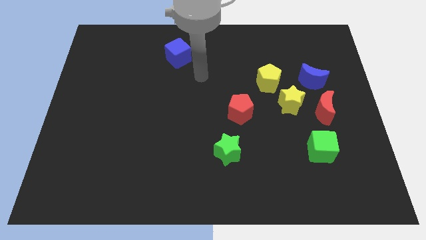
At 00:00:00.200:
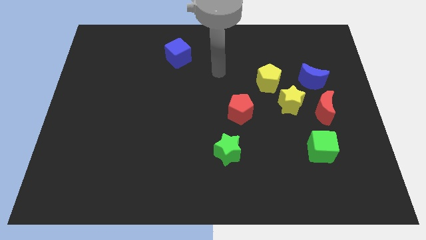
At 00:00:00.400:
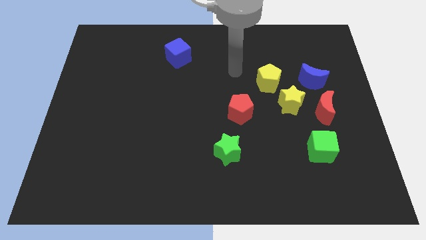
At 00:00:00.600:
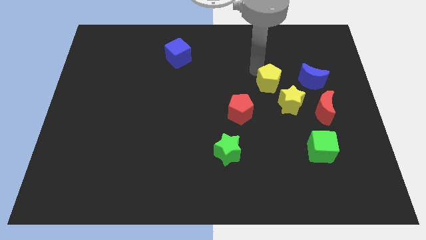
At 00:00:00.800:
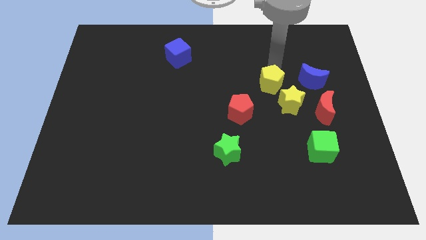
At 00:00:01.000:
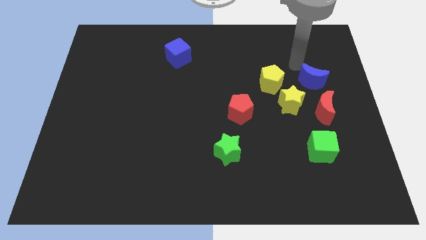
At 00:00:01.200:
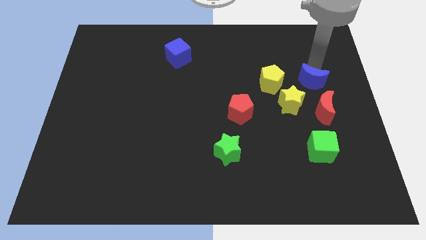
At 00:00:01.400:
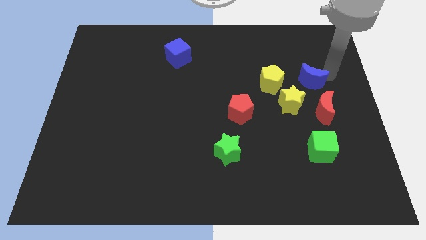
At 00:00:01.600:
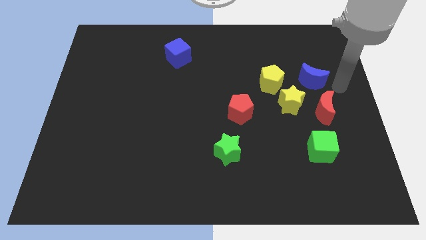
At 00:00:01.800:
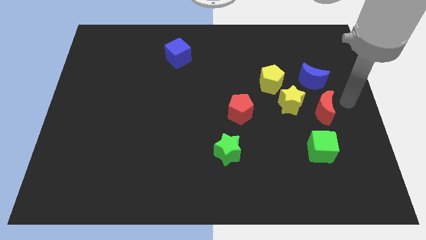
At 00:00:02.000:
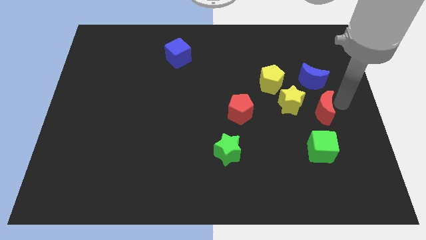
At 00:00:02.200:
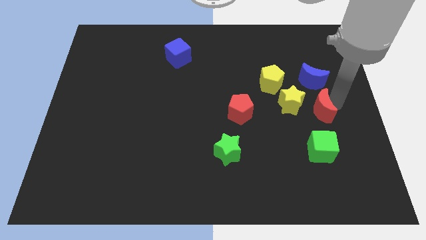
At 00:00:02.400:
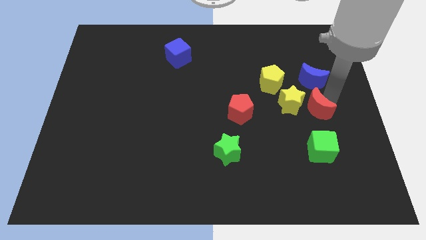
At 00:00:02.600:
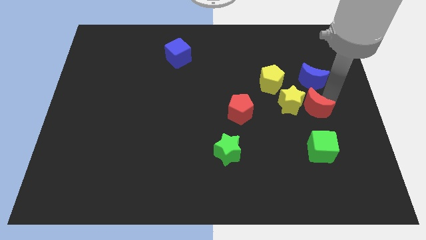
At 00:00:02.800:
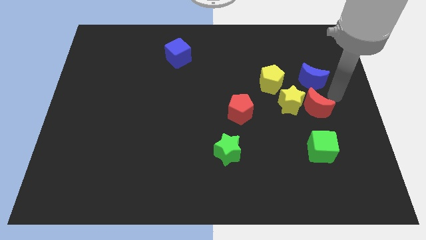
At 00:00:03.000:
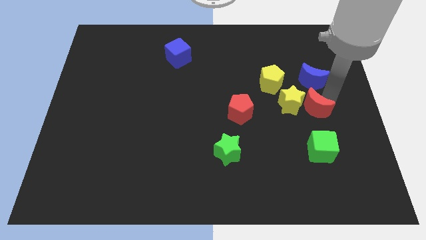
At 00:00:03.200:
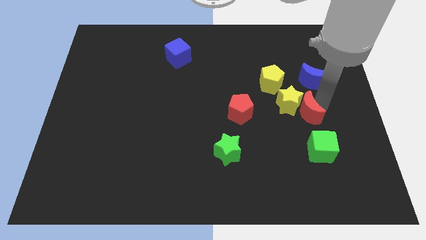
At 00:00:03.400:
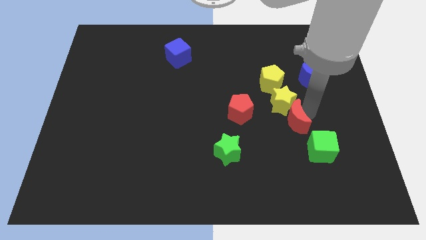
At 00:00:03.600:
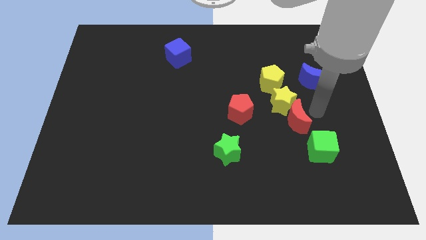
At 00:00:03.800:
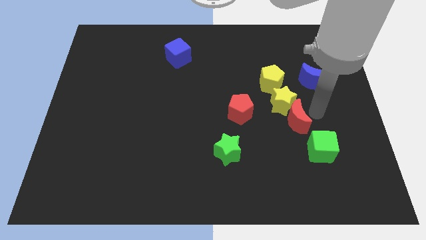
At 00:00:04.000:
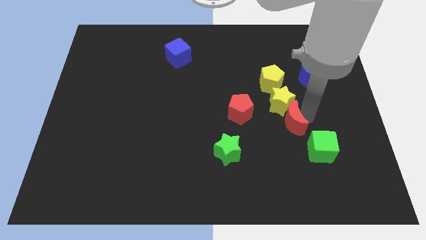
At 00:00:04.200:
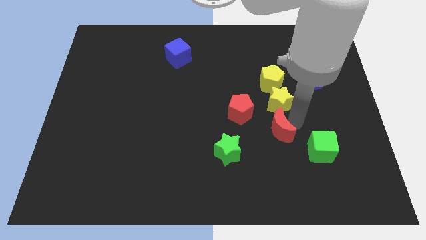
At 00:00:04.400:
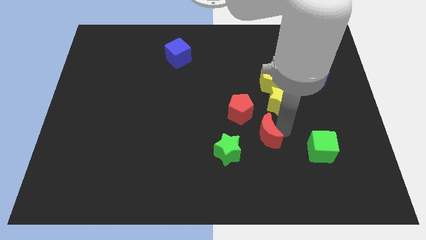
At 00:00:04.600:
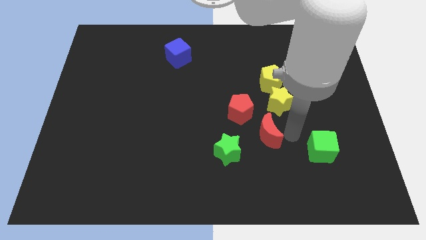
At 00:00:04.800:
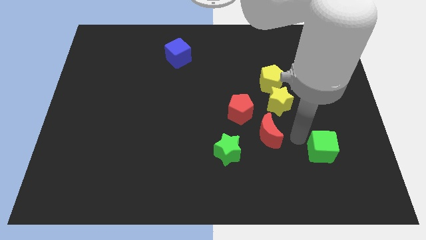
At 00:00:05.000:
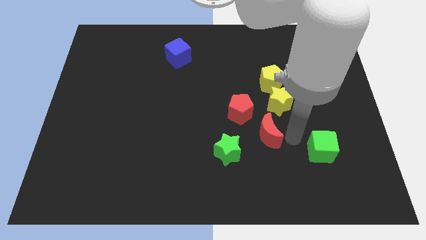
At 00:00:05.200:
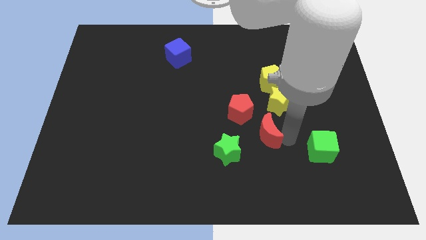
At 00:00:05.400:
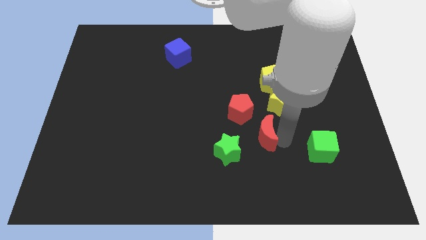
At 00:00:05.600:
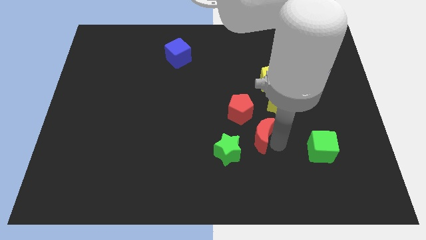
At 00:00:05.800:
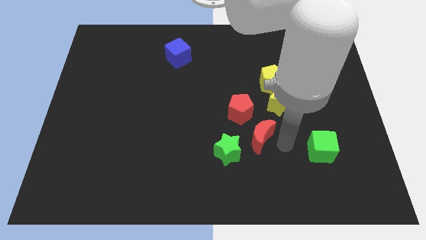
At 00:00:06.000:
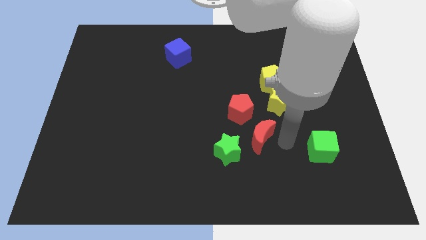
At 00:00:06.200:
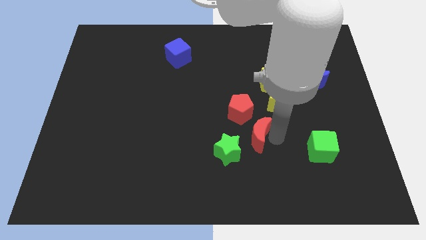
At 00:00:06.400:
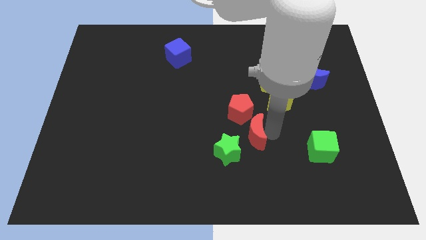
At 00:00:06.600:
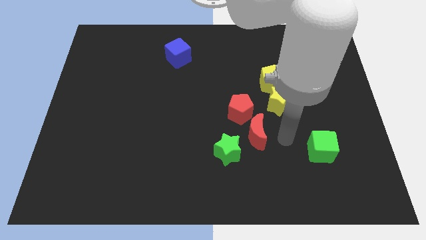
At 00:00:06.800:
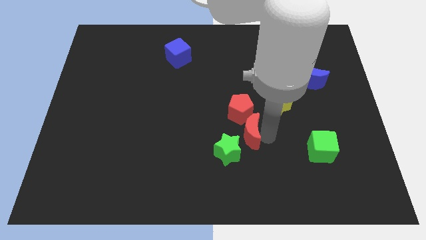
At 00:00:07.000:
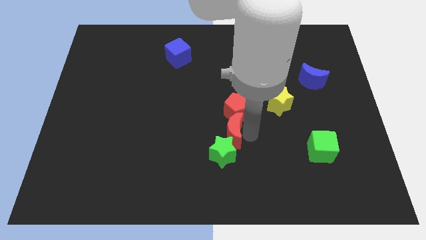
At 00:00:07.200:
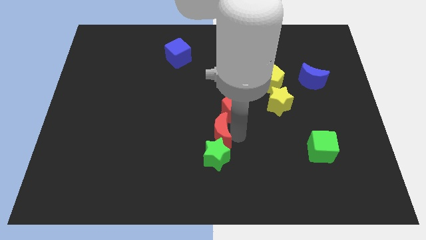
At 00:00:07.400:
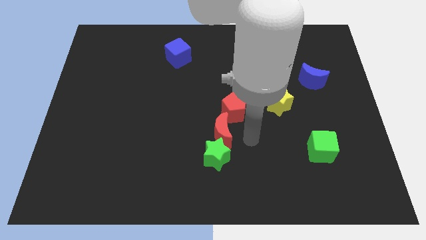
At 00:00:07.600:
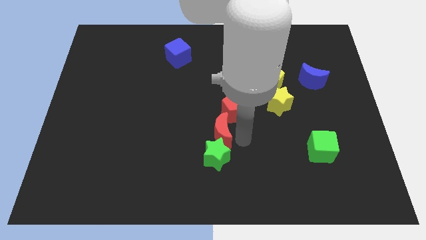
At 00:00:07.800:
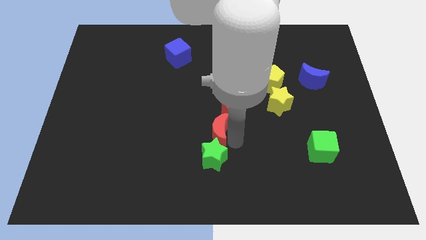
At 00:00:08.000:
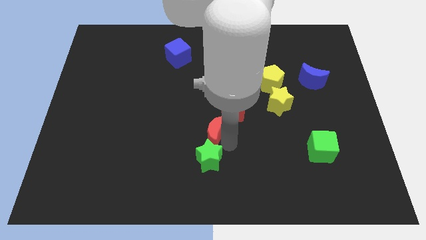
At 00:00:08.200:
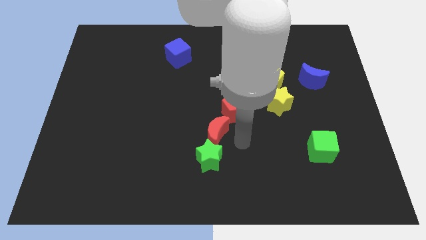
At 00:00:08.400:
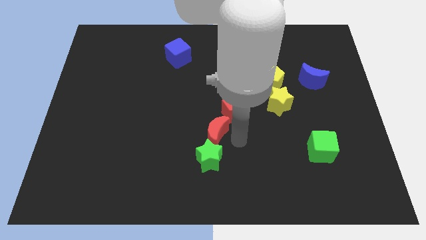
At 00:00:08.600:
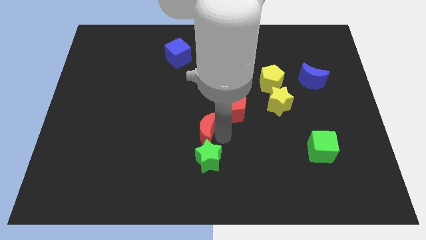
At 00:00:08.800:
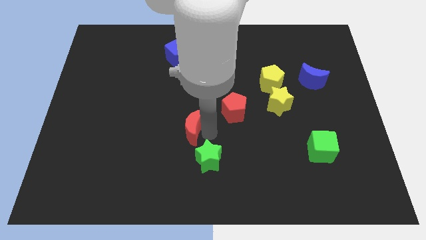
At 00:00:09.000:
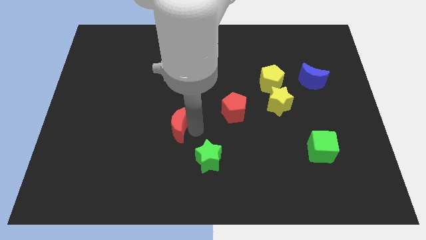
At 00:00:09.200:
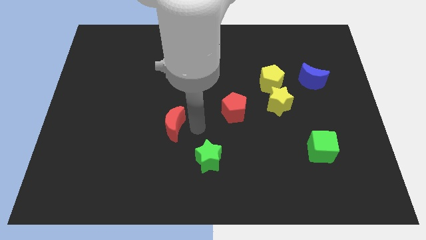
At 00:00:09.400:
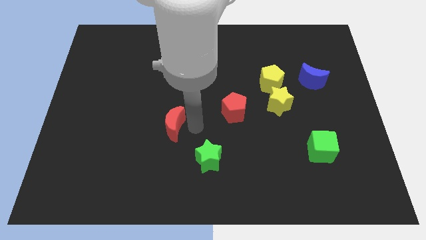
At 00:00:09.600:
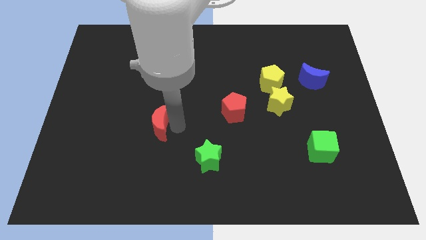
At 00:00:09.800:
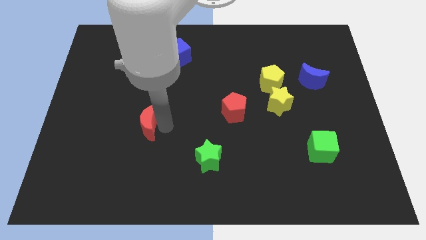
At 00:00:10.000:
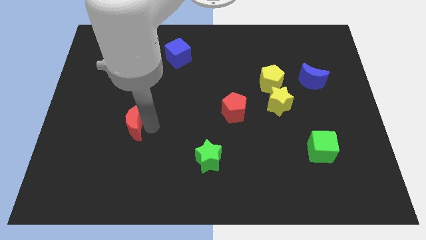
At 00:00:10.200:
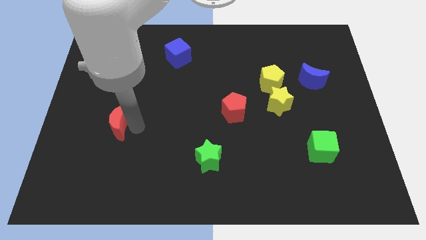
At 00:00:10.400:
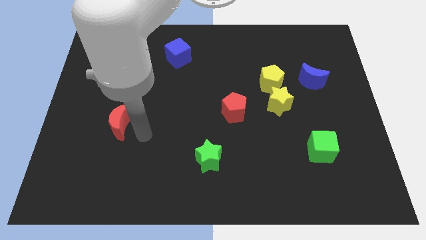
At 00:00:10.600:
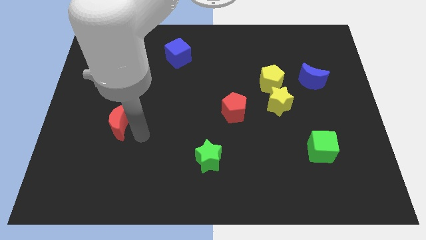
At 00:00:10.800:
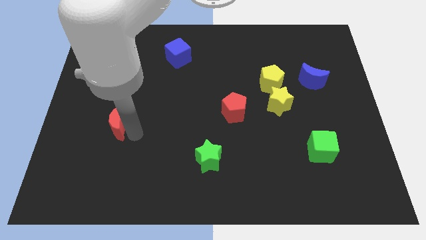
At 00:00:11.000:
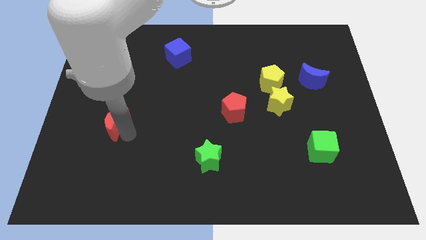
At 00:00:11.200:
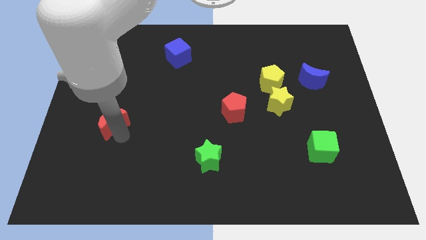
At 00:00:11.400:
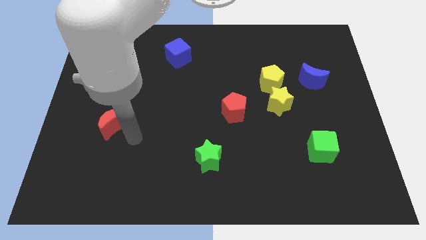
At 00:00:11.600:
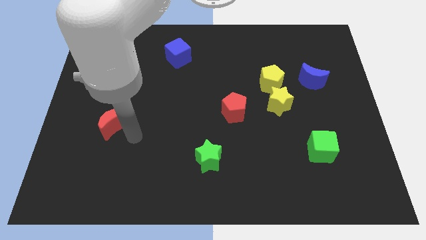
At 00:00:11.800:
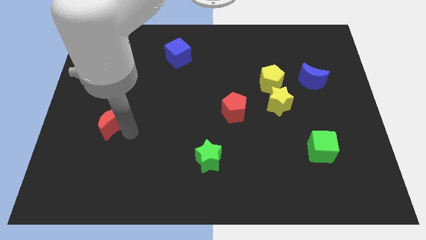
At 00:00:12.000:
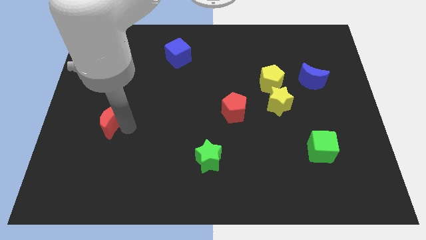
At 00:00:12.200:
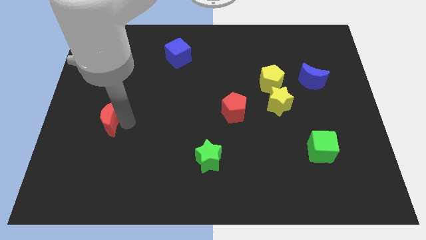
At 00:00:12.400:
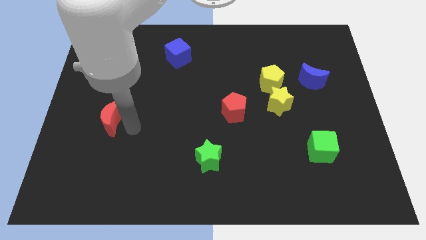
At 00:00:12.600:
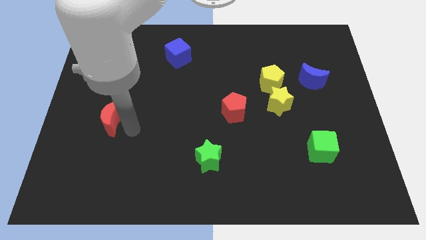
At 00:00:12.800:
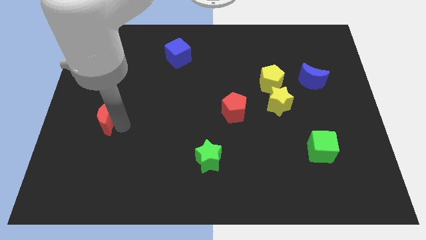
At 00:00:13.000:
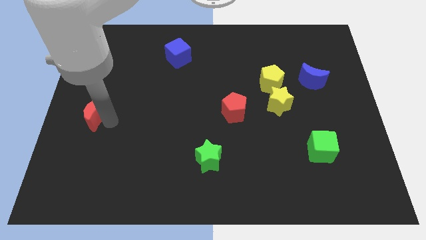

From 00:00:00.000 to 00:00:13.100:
move the red moon to the left side of the board
